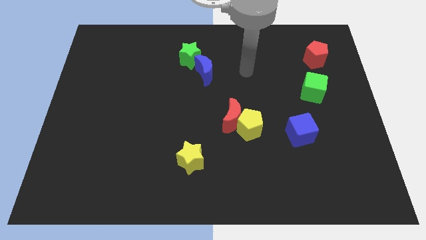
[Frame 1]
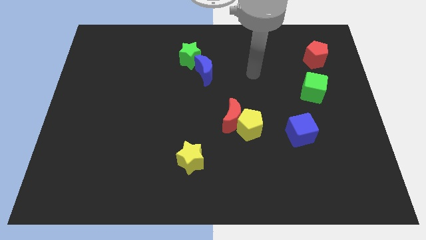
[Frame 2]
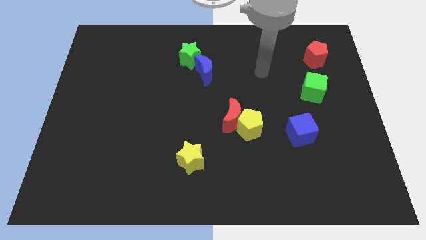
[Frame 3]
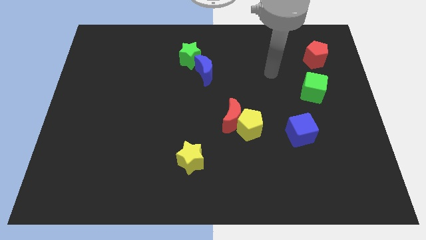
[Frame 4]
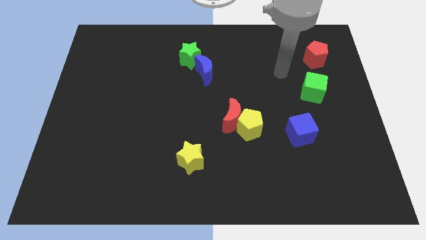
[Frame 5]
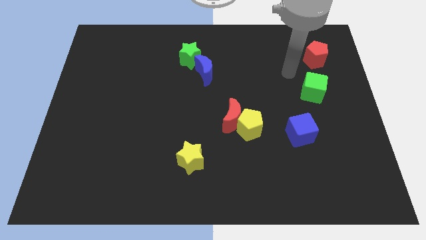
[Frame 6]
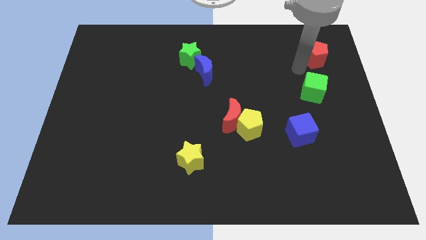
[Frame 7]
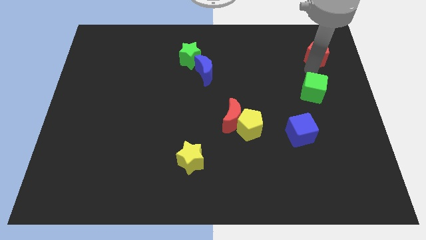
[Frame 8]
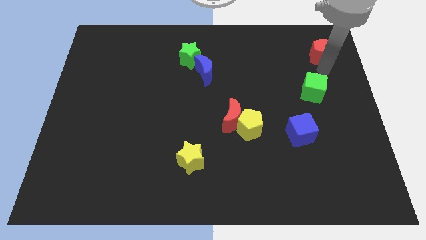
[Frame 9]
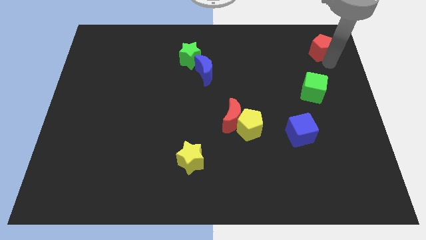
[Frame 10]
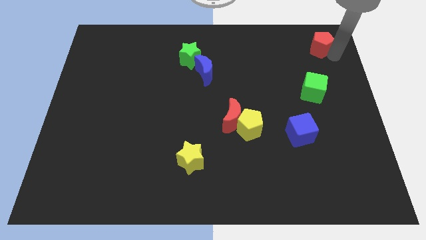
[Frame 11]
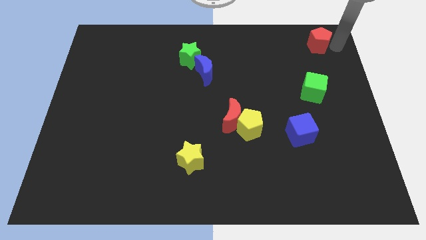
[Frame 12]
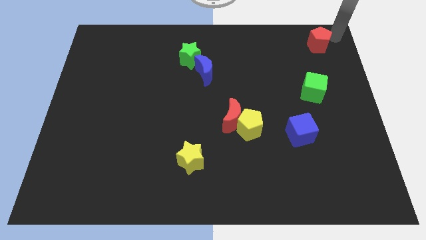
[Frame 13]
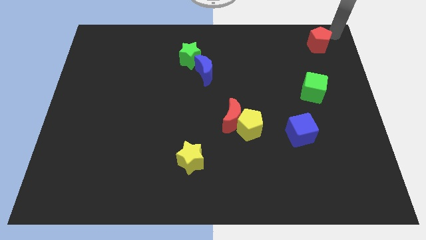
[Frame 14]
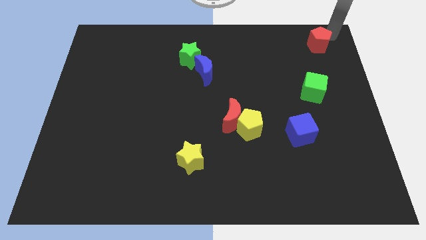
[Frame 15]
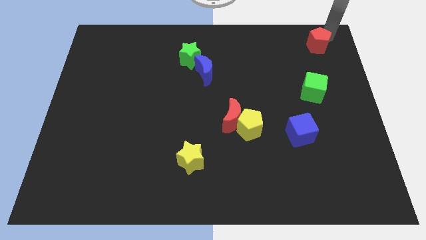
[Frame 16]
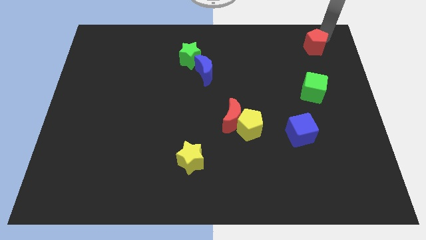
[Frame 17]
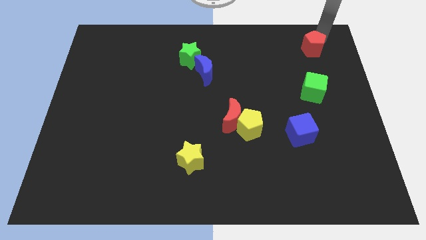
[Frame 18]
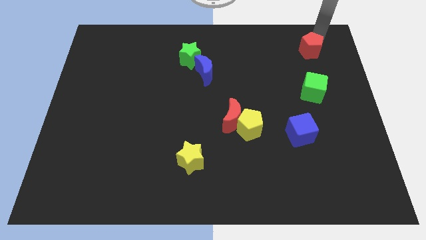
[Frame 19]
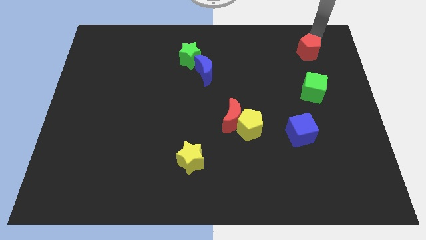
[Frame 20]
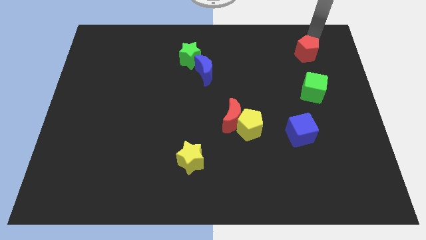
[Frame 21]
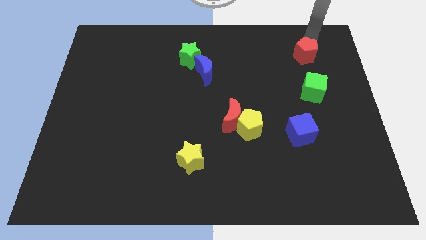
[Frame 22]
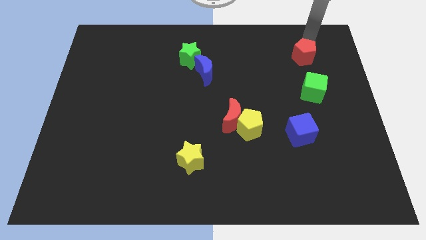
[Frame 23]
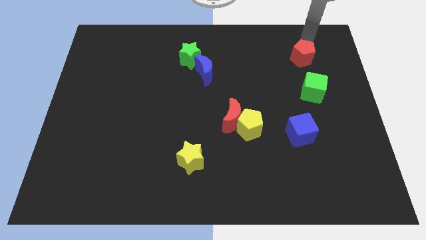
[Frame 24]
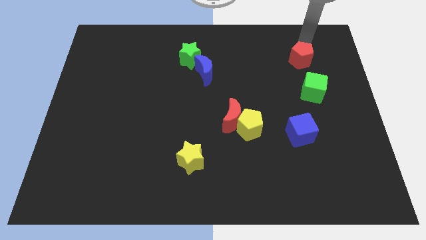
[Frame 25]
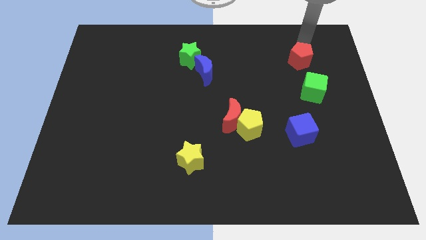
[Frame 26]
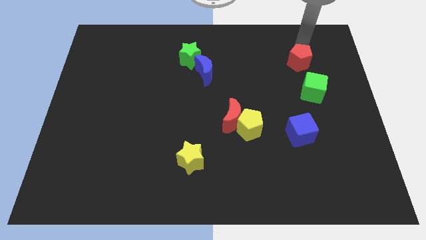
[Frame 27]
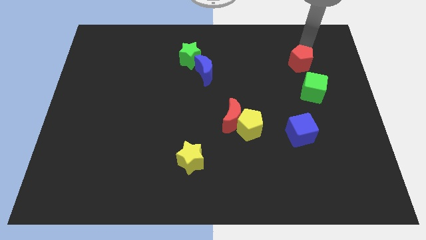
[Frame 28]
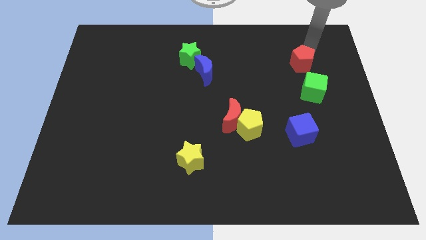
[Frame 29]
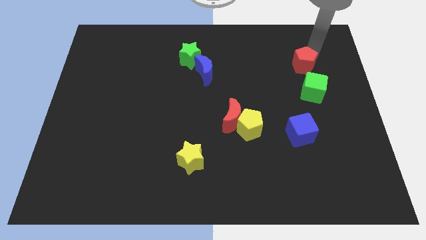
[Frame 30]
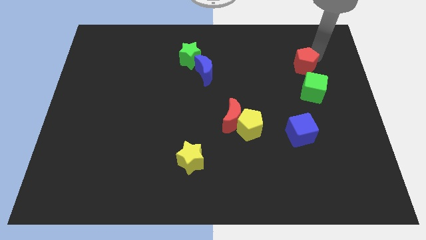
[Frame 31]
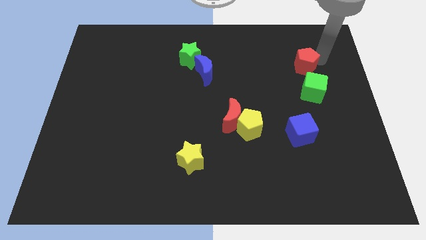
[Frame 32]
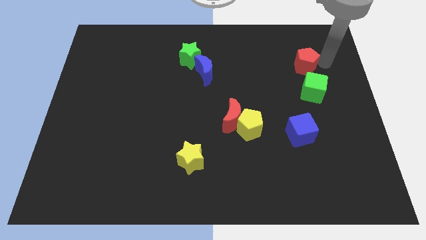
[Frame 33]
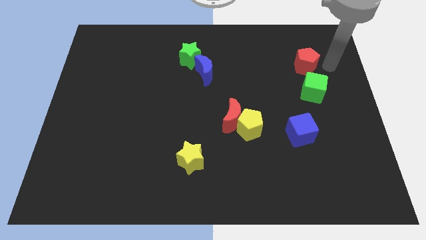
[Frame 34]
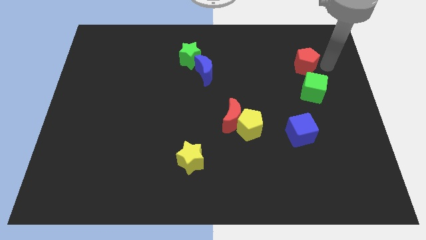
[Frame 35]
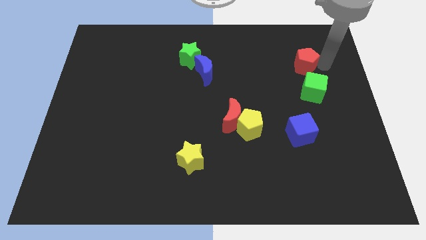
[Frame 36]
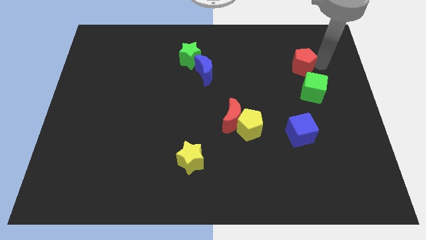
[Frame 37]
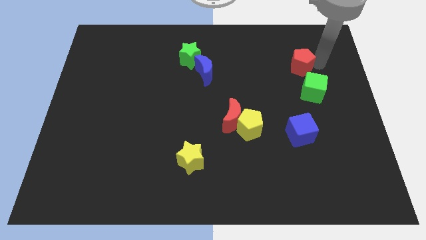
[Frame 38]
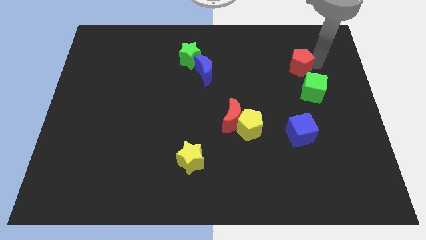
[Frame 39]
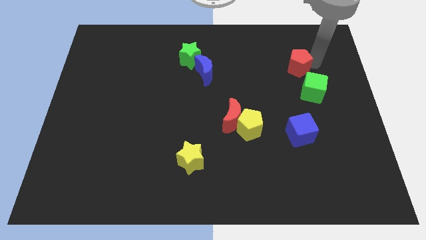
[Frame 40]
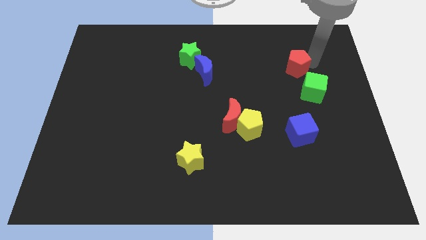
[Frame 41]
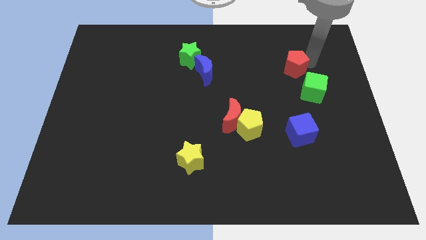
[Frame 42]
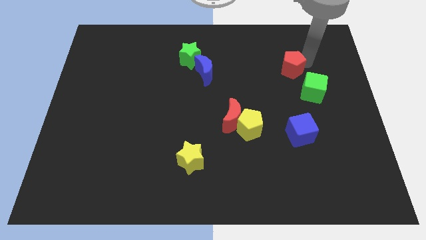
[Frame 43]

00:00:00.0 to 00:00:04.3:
slightly push the red pentagon diagonally down and to the left

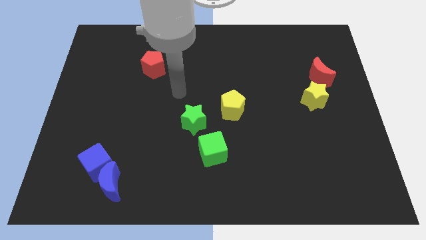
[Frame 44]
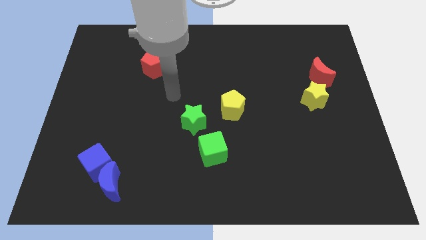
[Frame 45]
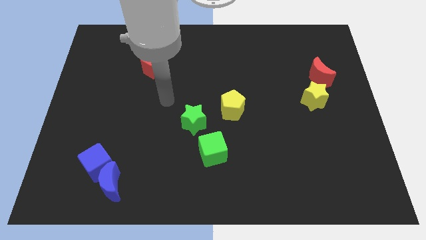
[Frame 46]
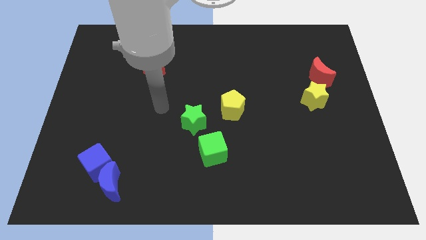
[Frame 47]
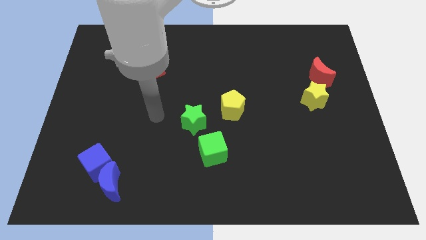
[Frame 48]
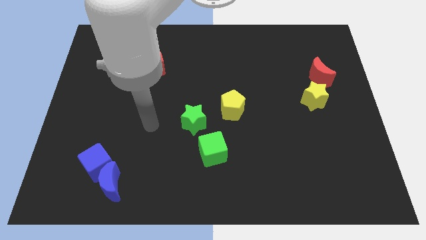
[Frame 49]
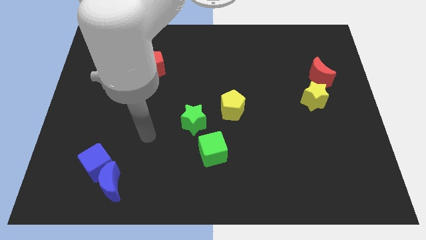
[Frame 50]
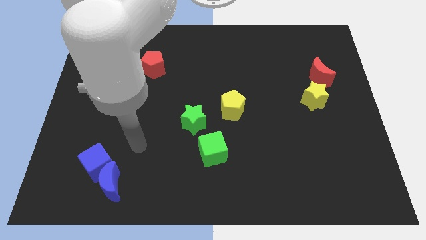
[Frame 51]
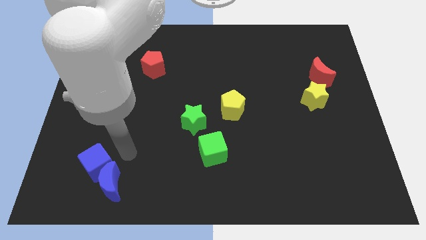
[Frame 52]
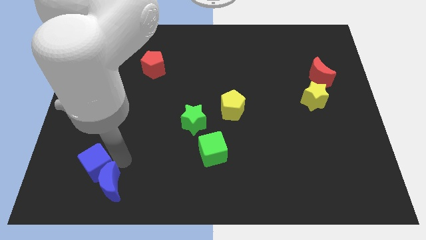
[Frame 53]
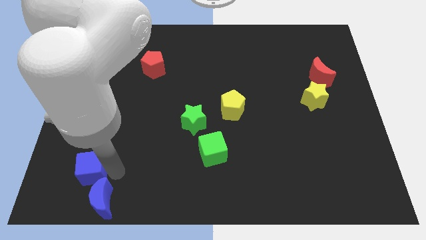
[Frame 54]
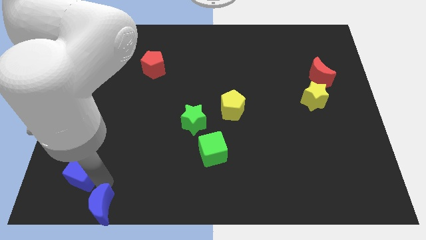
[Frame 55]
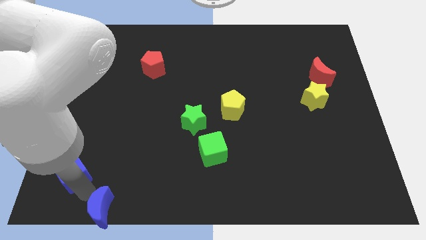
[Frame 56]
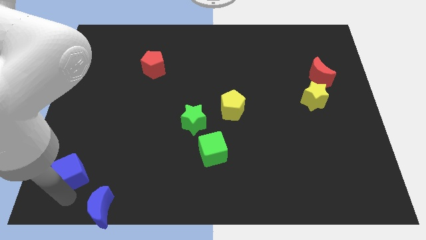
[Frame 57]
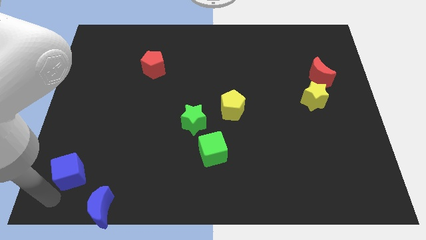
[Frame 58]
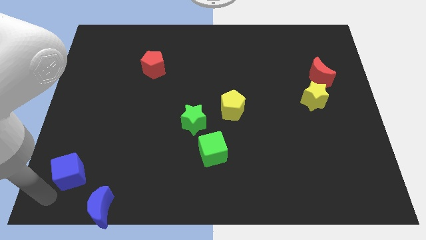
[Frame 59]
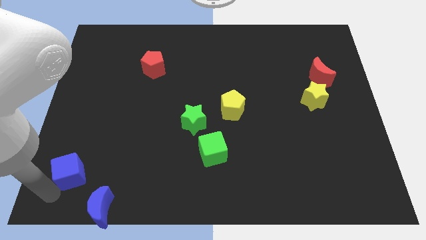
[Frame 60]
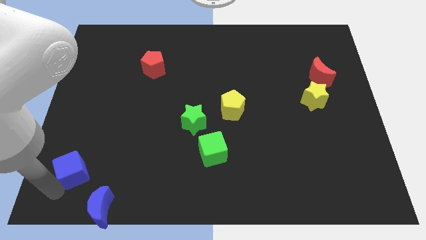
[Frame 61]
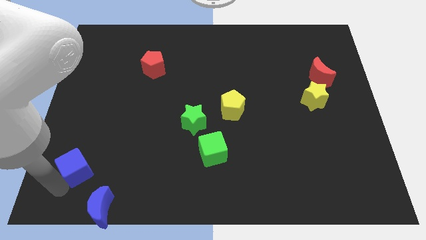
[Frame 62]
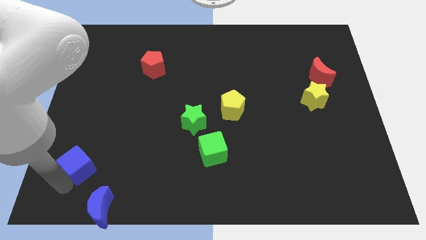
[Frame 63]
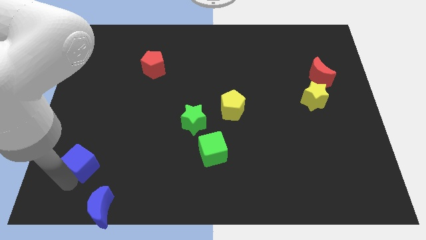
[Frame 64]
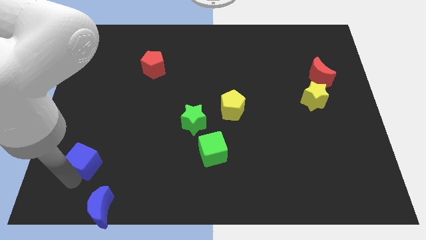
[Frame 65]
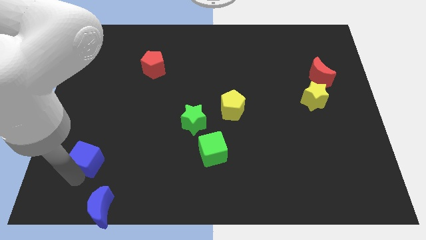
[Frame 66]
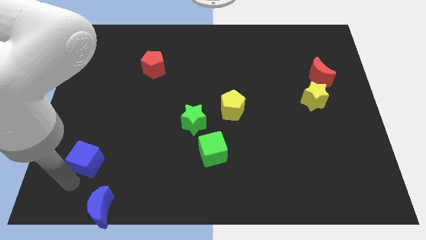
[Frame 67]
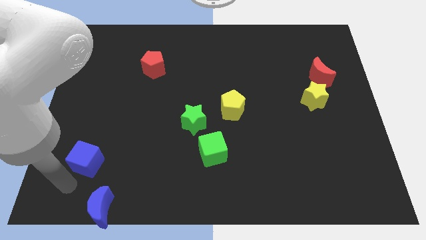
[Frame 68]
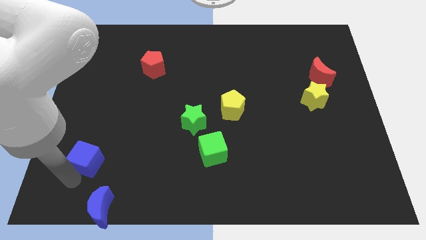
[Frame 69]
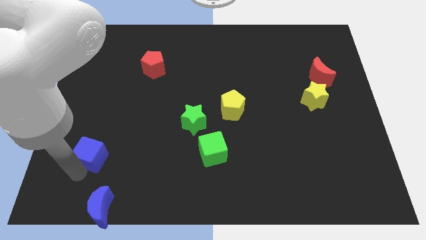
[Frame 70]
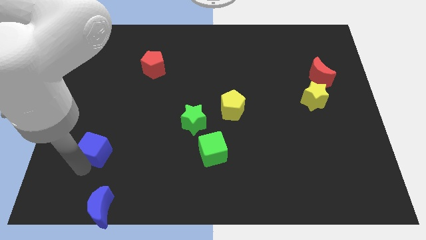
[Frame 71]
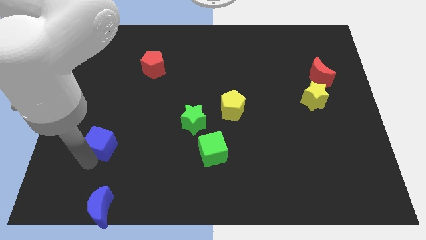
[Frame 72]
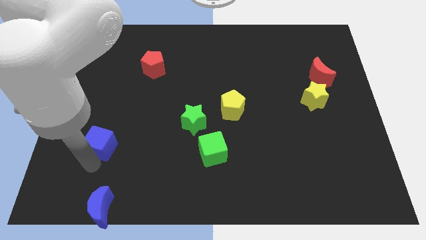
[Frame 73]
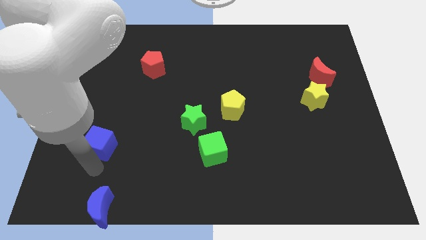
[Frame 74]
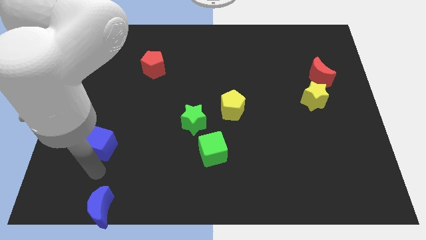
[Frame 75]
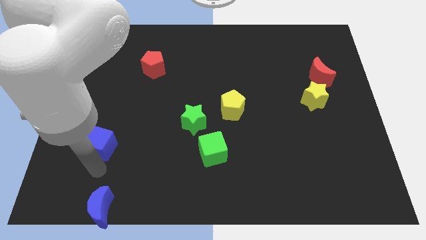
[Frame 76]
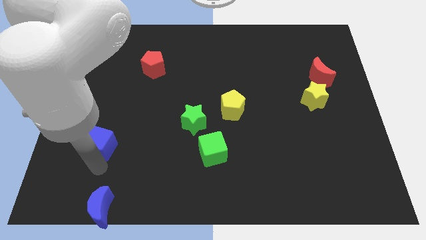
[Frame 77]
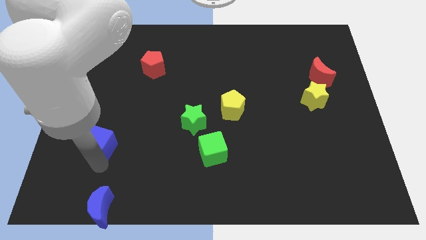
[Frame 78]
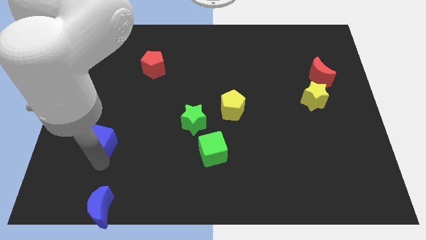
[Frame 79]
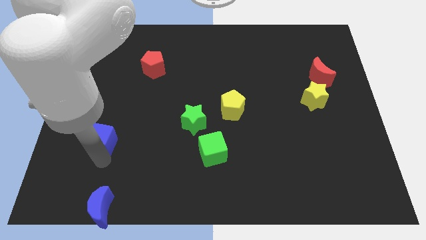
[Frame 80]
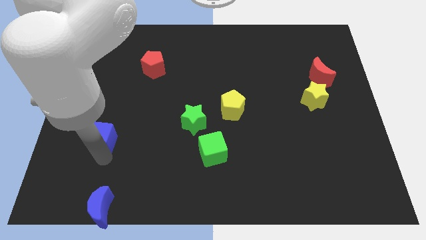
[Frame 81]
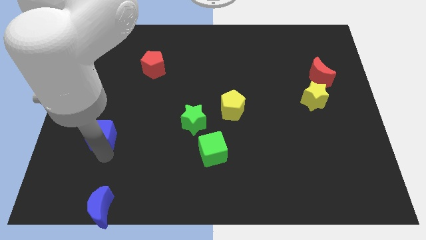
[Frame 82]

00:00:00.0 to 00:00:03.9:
slightly slide the blue cube upwards

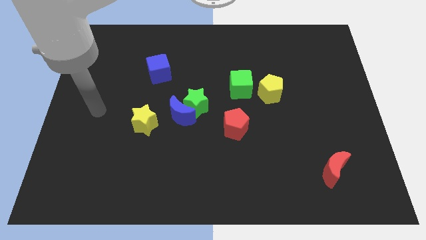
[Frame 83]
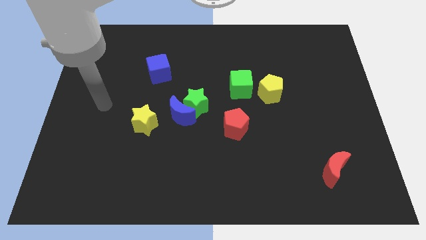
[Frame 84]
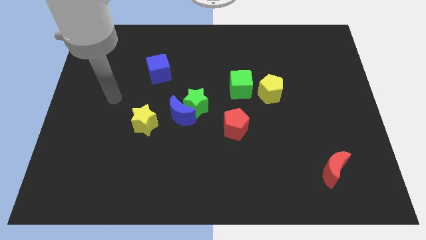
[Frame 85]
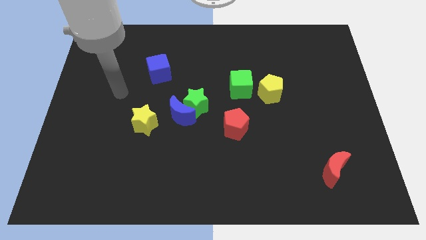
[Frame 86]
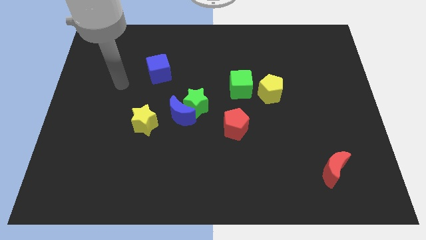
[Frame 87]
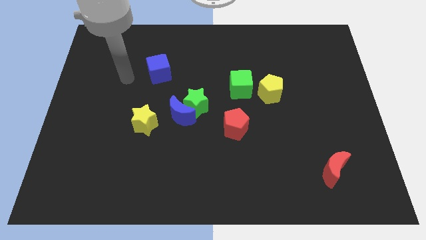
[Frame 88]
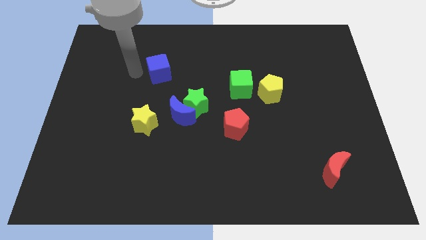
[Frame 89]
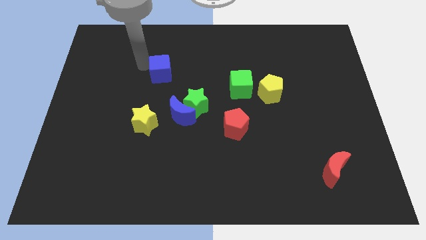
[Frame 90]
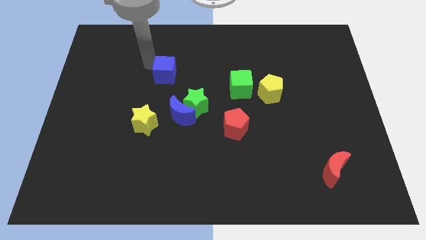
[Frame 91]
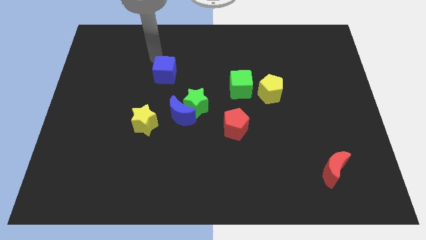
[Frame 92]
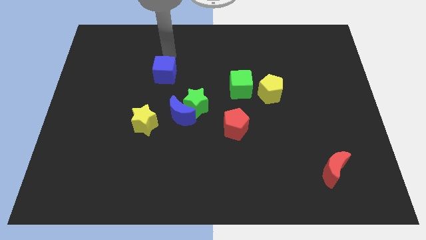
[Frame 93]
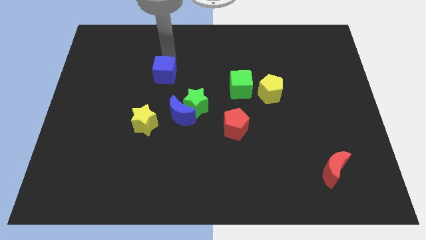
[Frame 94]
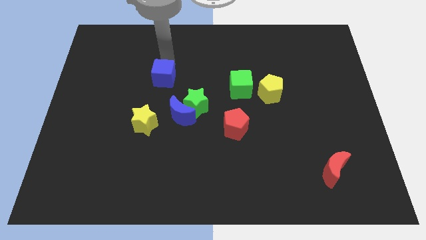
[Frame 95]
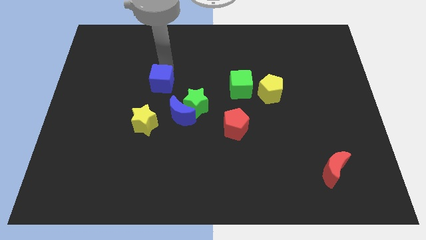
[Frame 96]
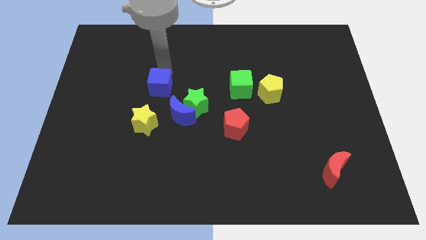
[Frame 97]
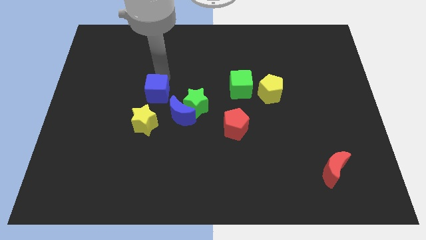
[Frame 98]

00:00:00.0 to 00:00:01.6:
slightly push the blue cube downwards
